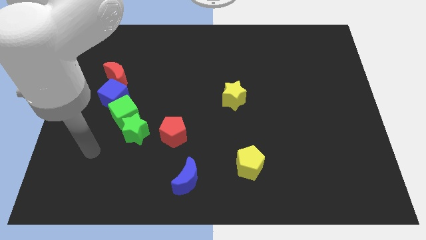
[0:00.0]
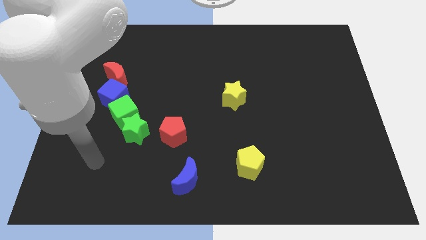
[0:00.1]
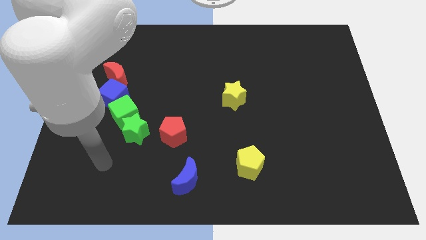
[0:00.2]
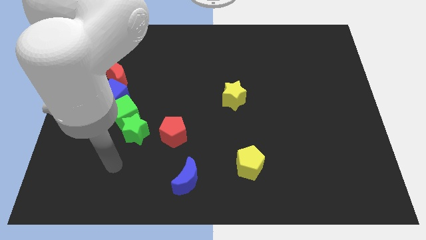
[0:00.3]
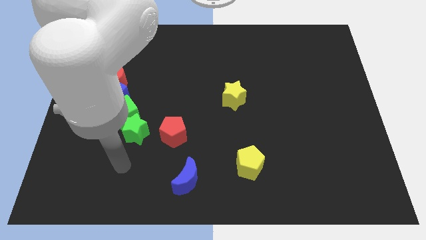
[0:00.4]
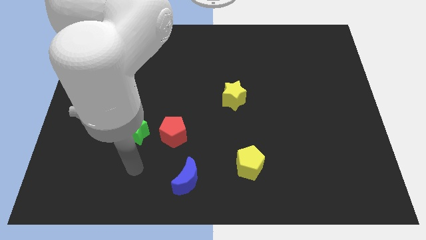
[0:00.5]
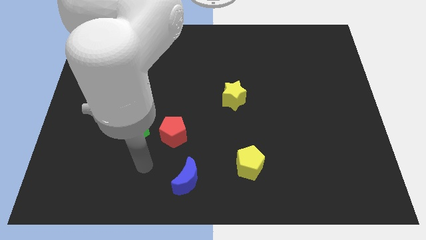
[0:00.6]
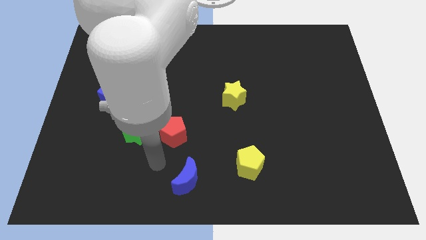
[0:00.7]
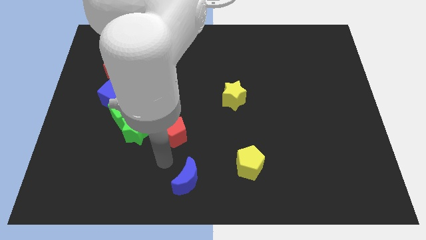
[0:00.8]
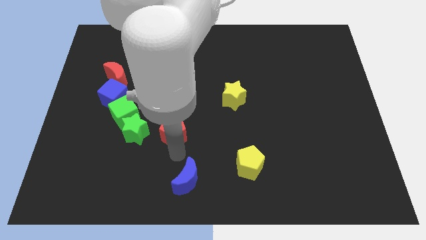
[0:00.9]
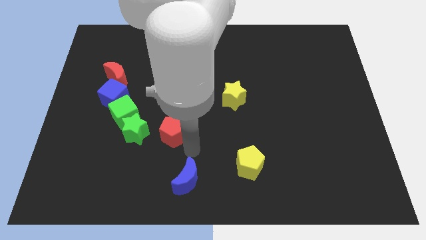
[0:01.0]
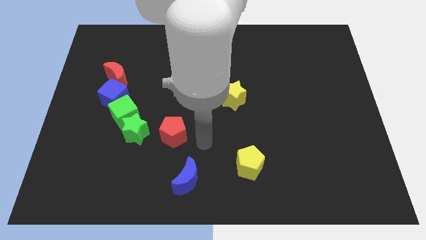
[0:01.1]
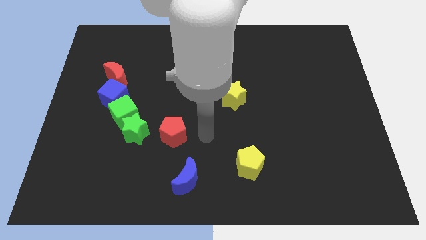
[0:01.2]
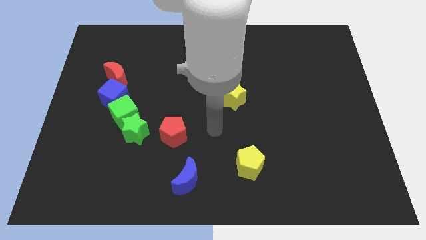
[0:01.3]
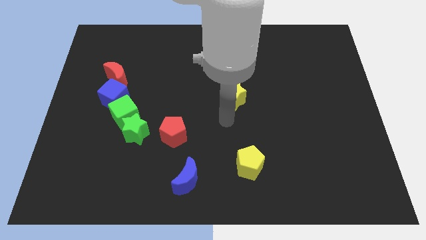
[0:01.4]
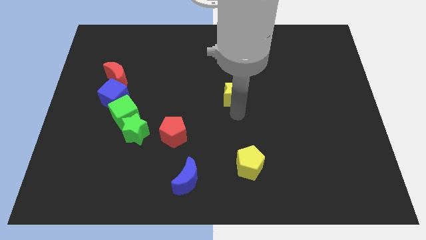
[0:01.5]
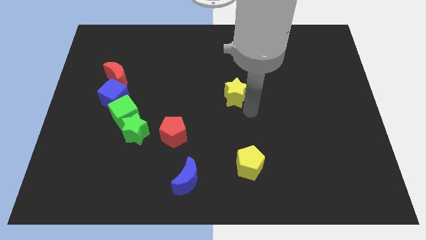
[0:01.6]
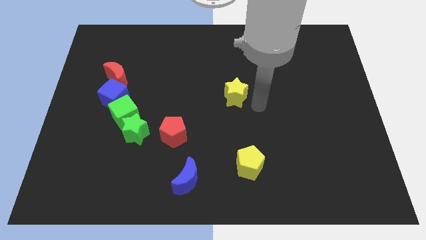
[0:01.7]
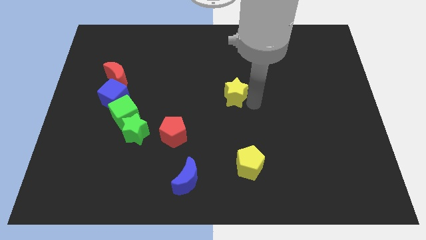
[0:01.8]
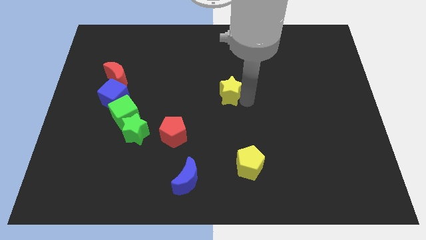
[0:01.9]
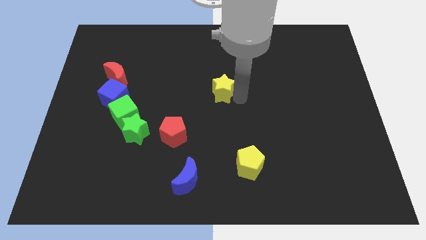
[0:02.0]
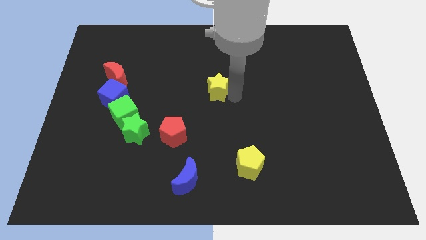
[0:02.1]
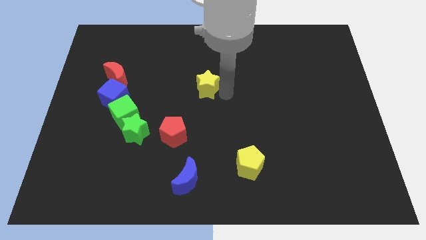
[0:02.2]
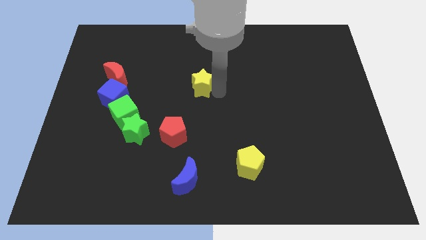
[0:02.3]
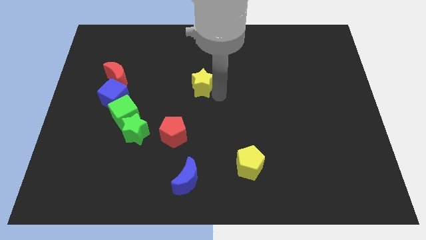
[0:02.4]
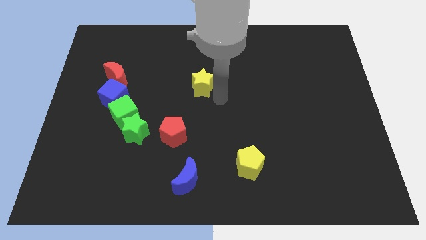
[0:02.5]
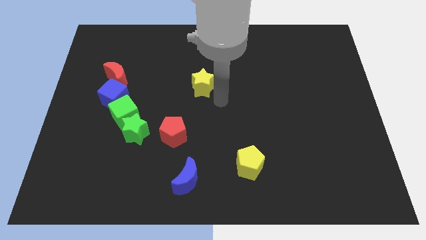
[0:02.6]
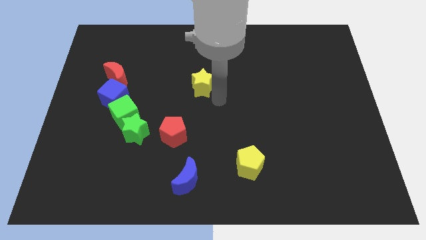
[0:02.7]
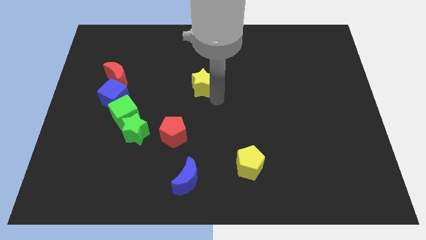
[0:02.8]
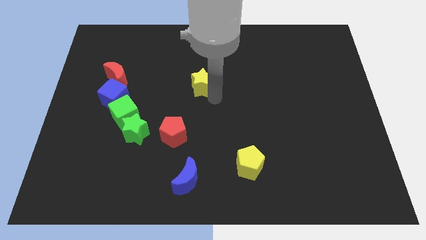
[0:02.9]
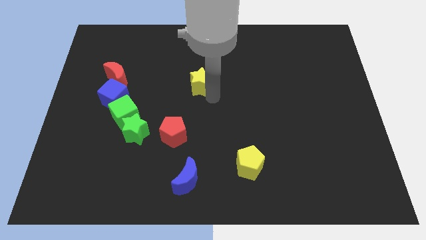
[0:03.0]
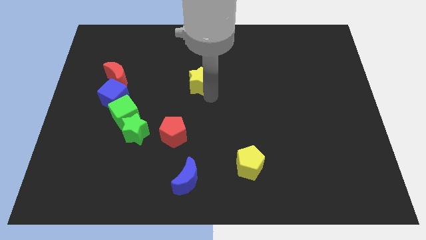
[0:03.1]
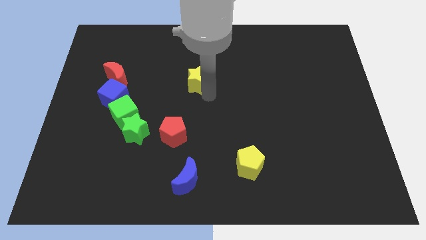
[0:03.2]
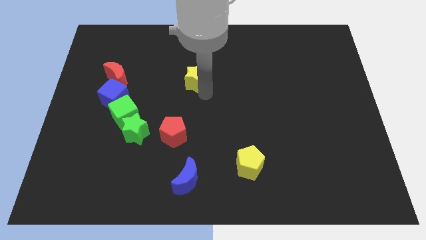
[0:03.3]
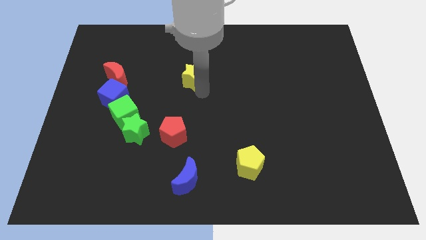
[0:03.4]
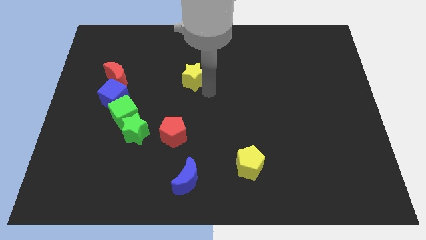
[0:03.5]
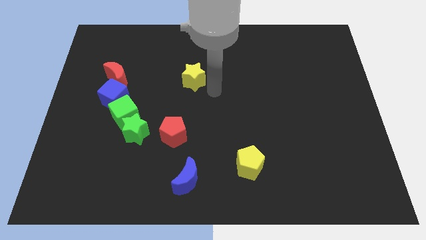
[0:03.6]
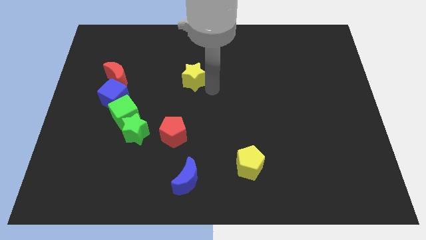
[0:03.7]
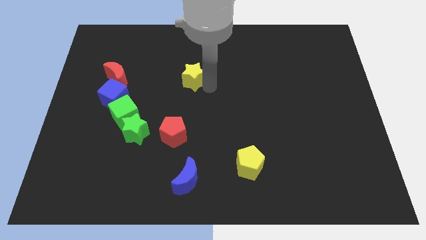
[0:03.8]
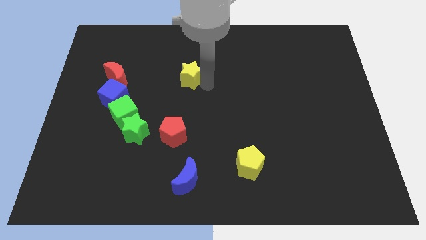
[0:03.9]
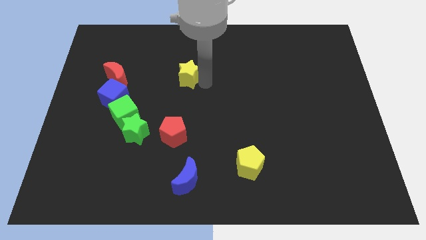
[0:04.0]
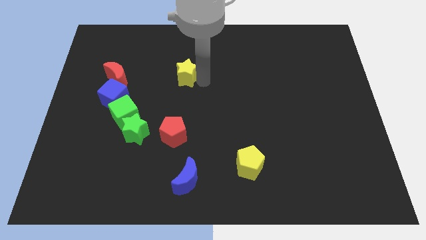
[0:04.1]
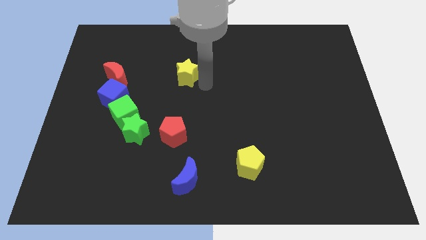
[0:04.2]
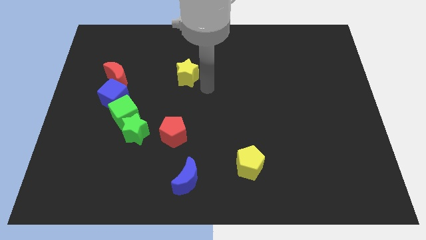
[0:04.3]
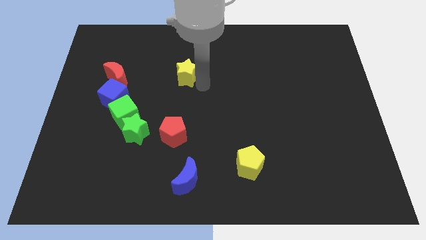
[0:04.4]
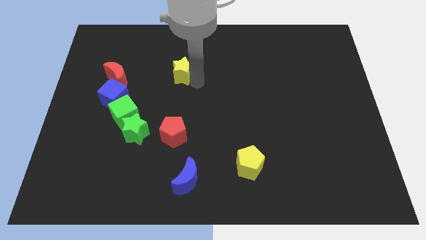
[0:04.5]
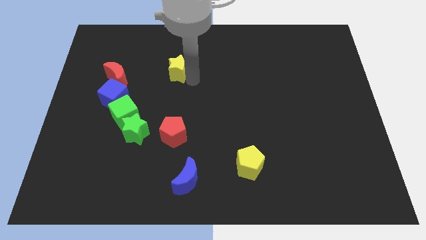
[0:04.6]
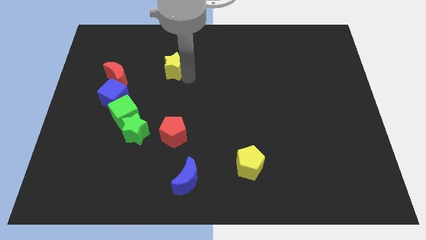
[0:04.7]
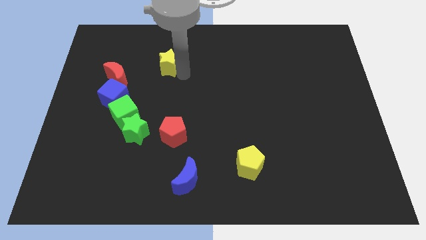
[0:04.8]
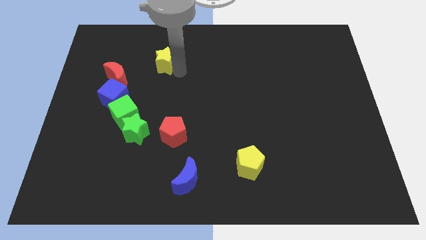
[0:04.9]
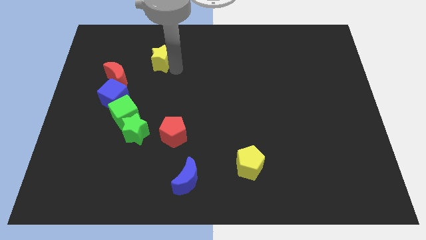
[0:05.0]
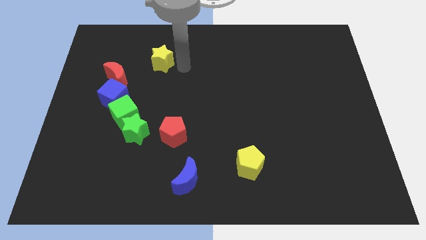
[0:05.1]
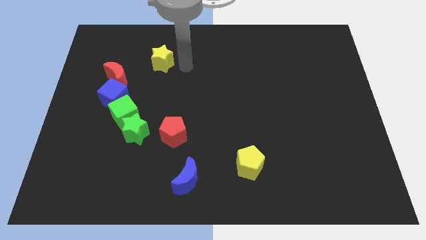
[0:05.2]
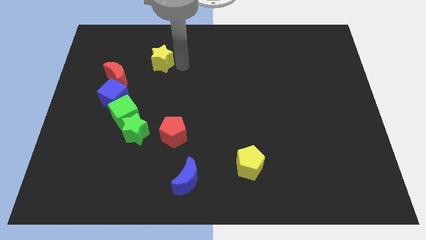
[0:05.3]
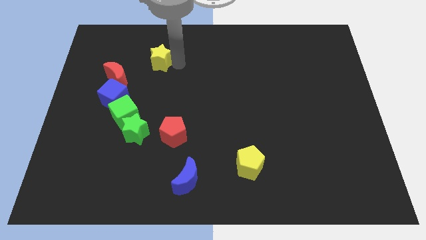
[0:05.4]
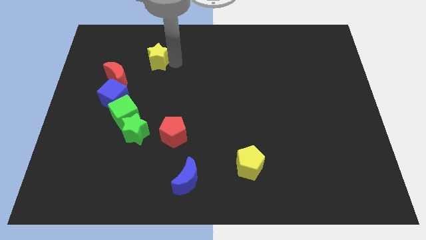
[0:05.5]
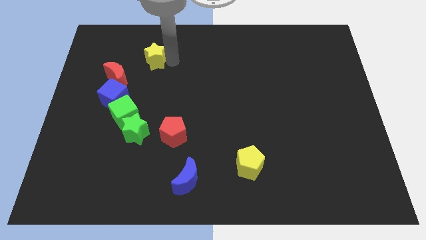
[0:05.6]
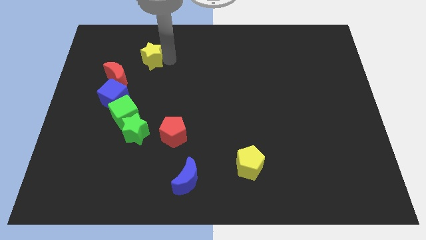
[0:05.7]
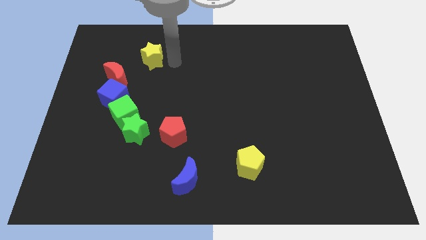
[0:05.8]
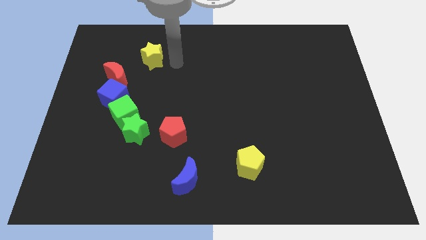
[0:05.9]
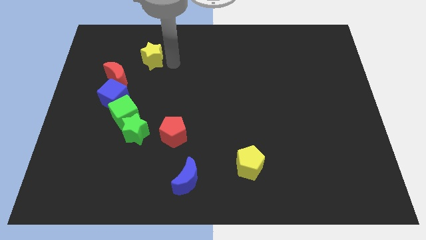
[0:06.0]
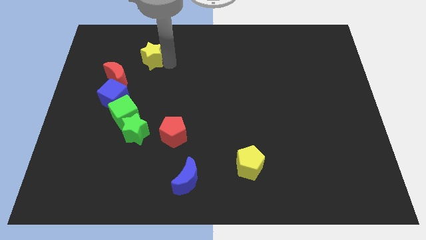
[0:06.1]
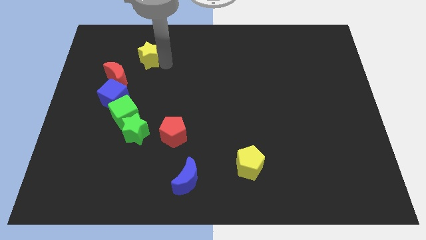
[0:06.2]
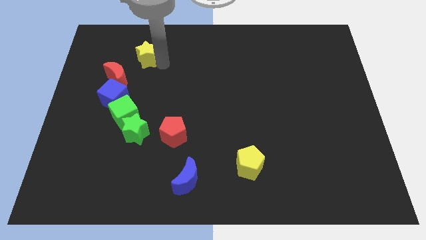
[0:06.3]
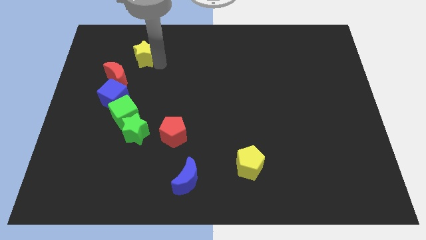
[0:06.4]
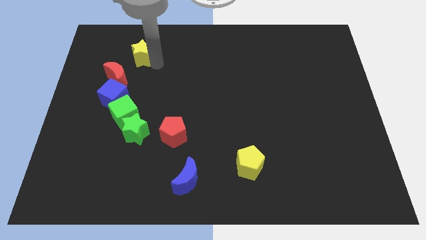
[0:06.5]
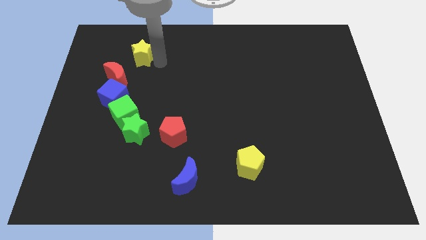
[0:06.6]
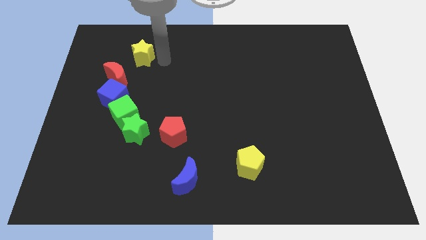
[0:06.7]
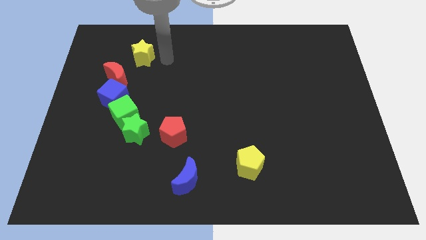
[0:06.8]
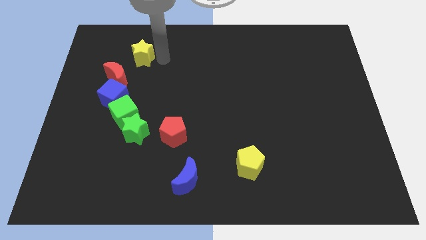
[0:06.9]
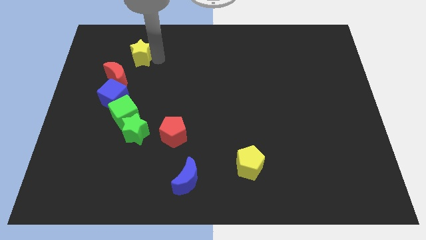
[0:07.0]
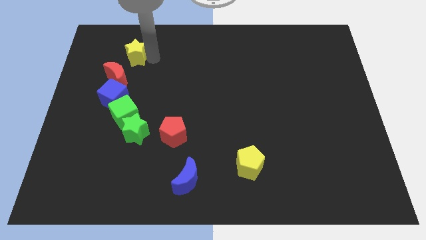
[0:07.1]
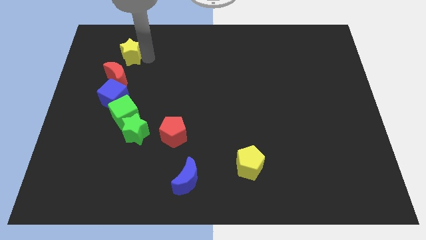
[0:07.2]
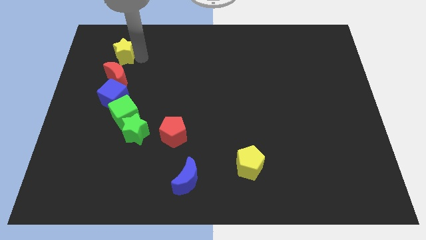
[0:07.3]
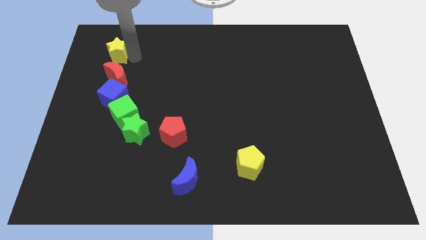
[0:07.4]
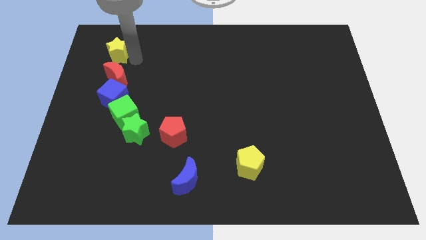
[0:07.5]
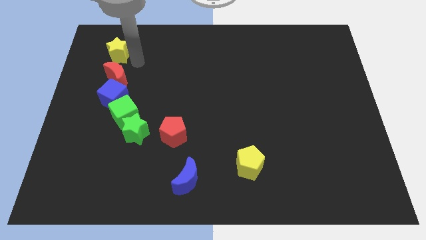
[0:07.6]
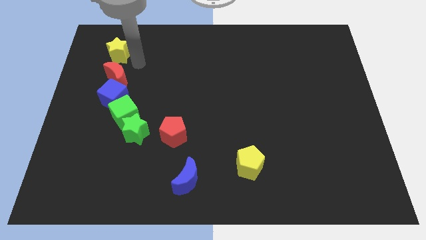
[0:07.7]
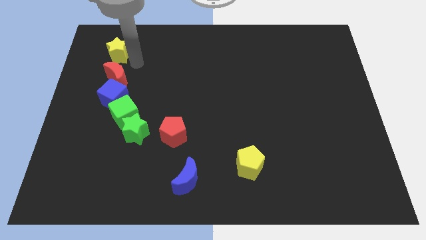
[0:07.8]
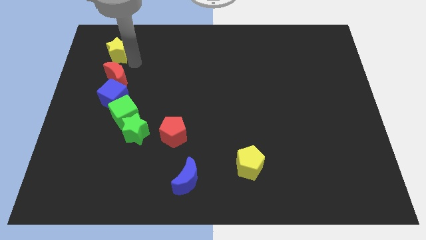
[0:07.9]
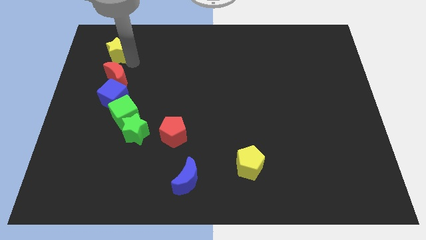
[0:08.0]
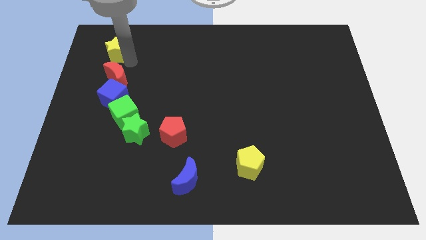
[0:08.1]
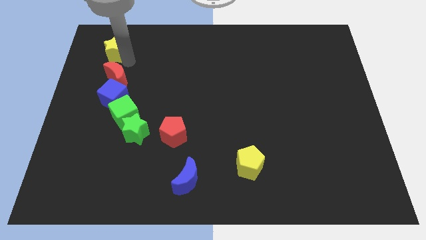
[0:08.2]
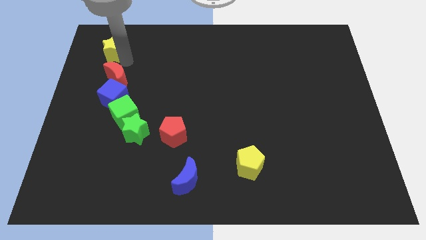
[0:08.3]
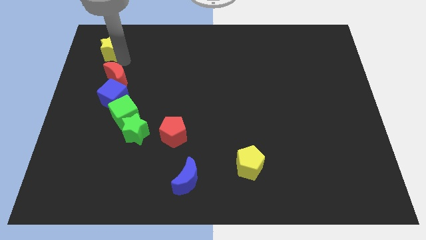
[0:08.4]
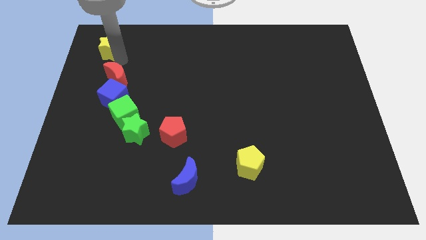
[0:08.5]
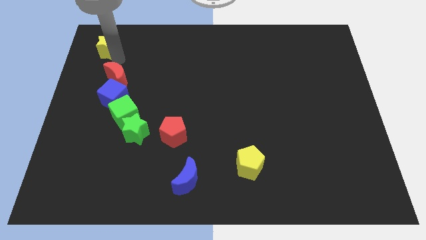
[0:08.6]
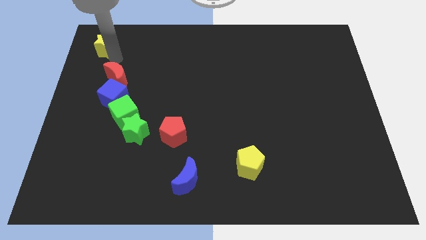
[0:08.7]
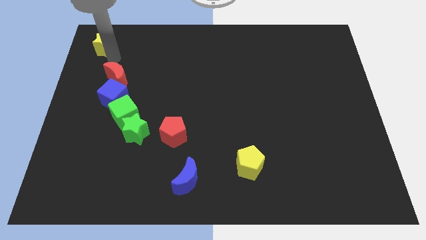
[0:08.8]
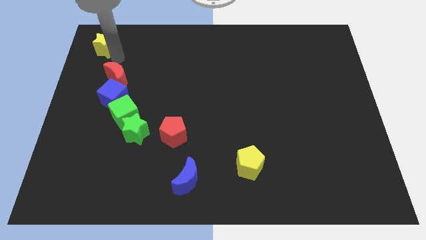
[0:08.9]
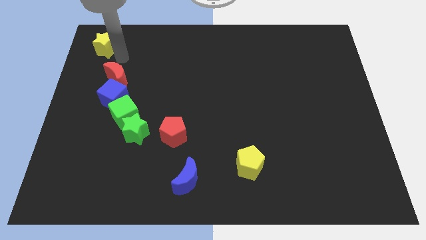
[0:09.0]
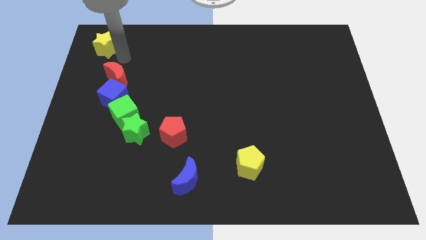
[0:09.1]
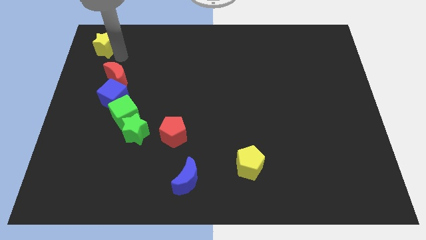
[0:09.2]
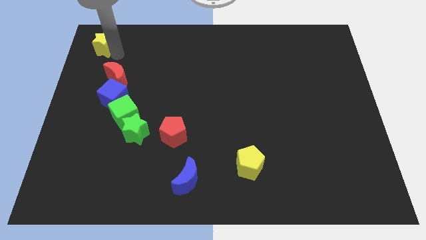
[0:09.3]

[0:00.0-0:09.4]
push the yellow star to the top left of the board
